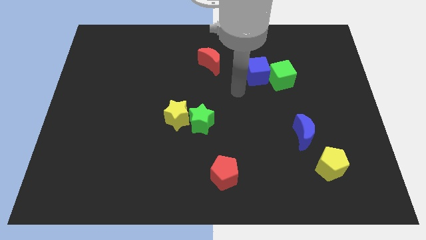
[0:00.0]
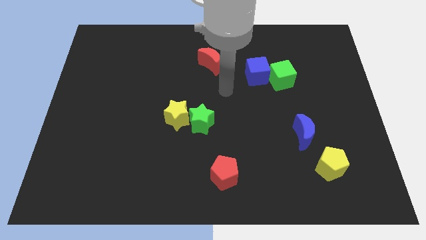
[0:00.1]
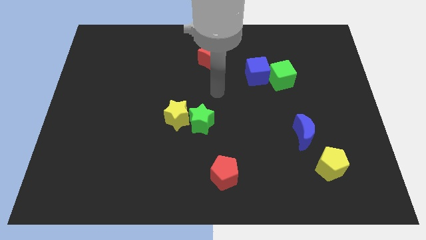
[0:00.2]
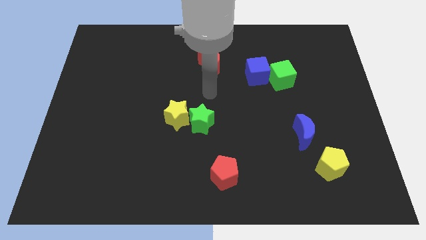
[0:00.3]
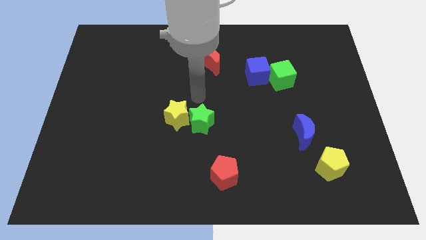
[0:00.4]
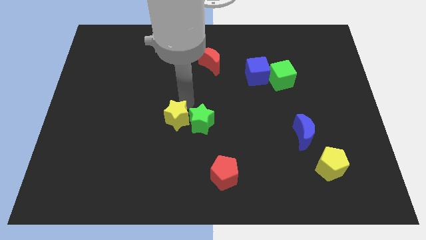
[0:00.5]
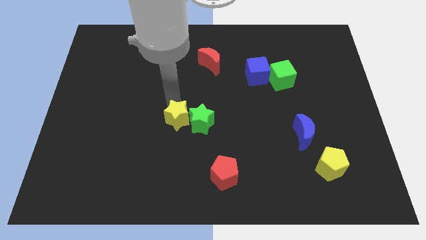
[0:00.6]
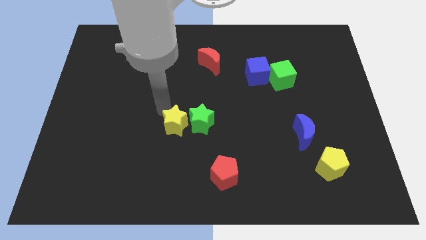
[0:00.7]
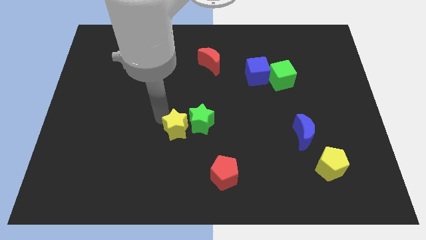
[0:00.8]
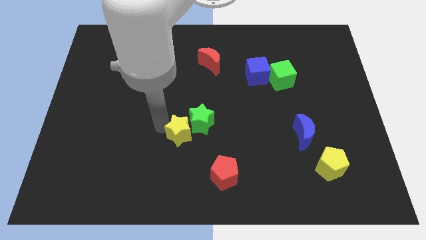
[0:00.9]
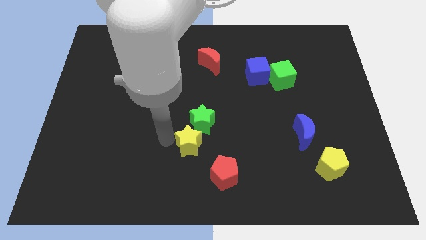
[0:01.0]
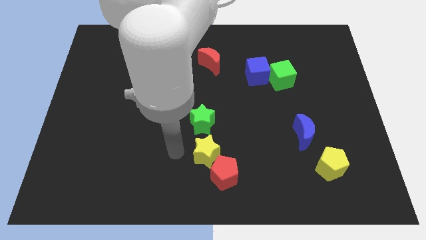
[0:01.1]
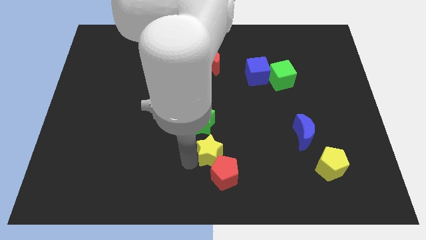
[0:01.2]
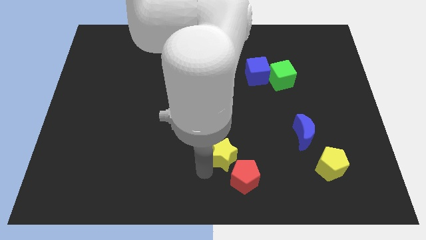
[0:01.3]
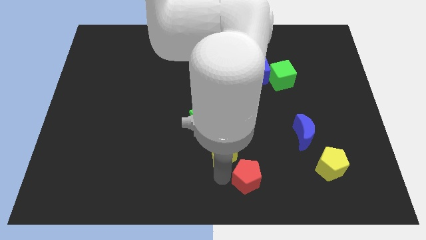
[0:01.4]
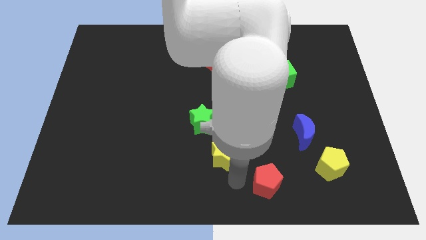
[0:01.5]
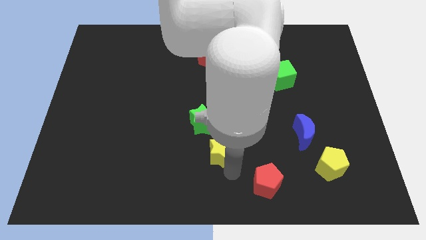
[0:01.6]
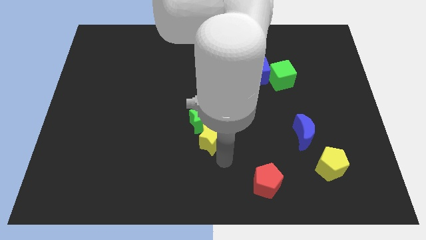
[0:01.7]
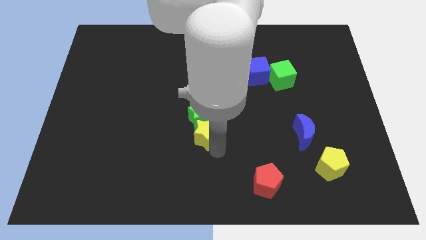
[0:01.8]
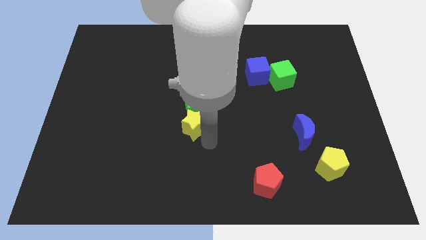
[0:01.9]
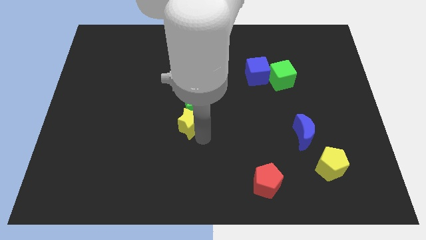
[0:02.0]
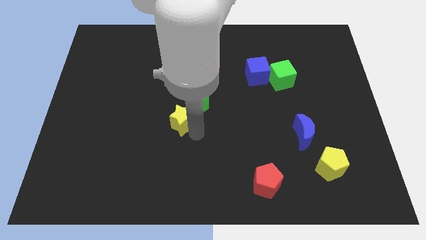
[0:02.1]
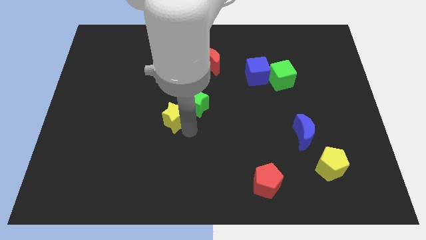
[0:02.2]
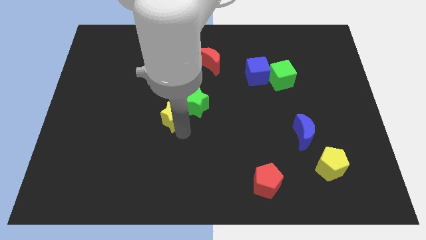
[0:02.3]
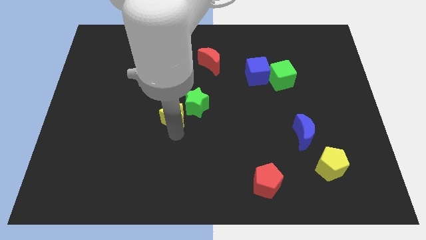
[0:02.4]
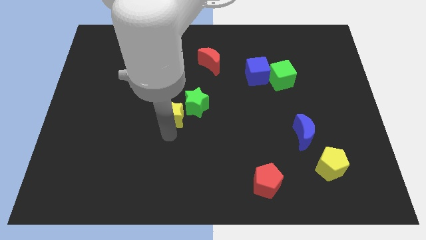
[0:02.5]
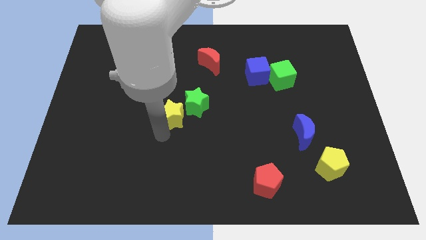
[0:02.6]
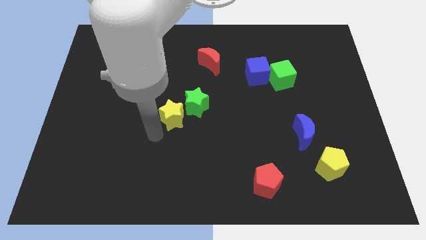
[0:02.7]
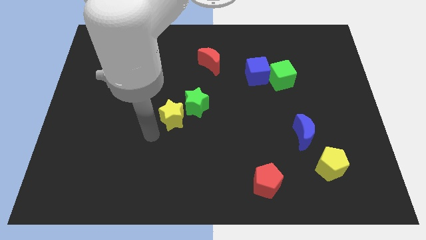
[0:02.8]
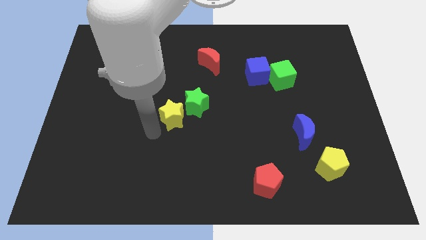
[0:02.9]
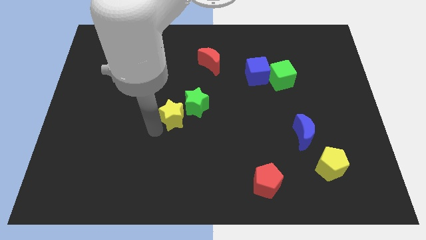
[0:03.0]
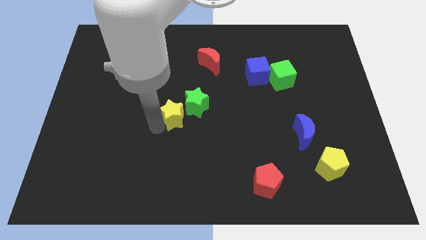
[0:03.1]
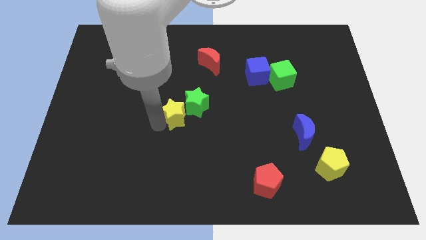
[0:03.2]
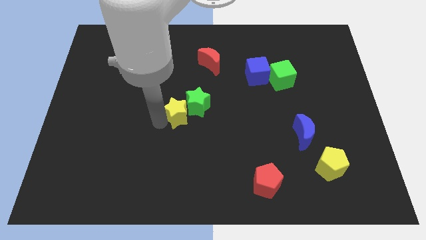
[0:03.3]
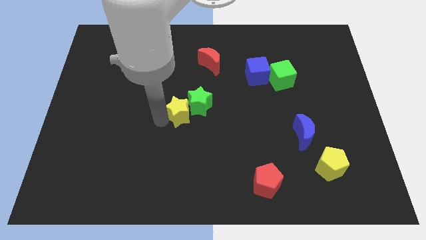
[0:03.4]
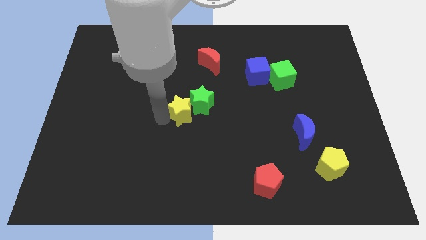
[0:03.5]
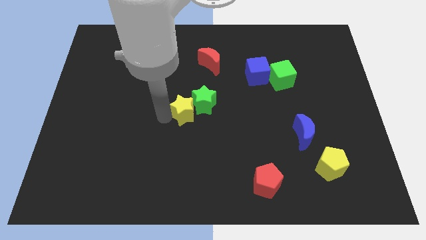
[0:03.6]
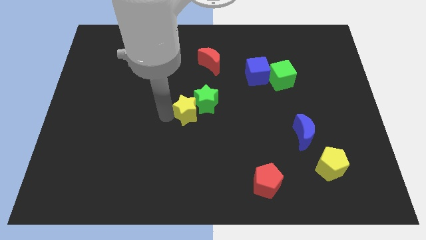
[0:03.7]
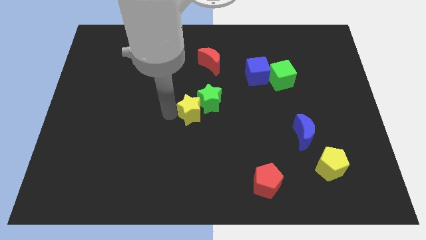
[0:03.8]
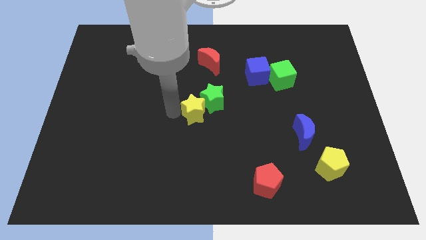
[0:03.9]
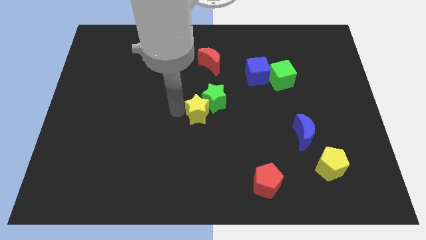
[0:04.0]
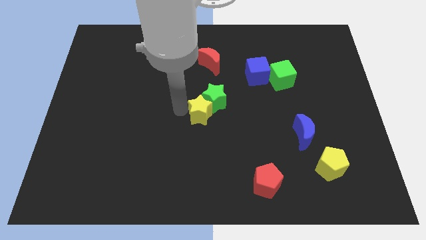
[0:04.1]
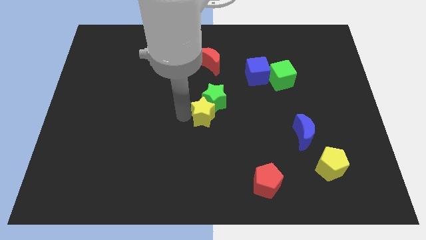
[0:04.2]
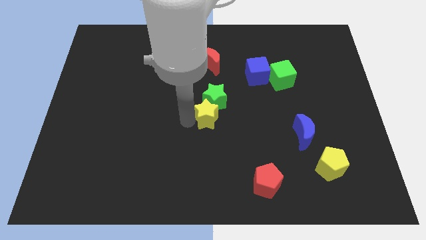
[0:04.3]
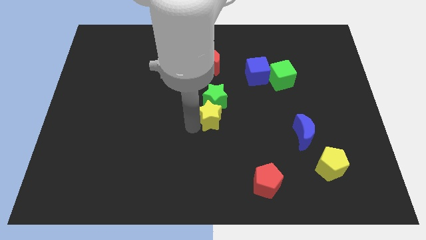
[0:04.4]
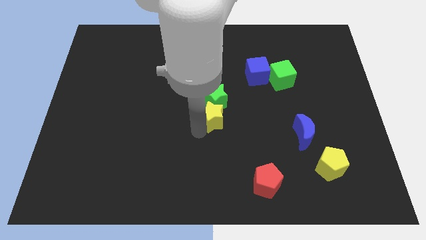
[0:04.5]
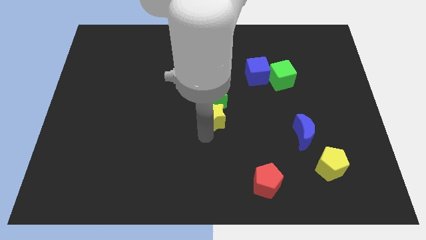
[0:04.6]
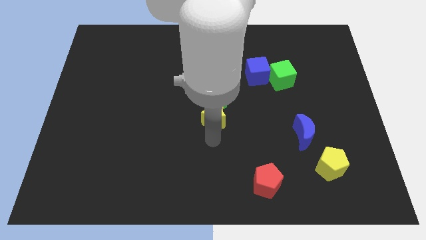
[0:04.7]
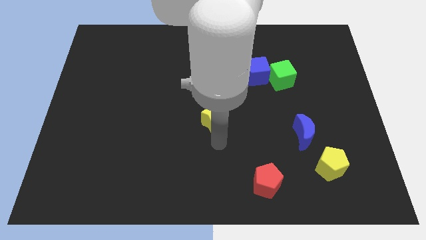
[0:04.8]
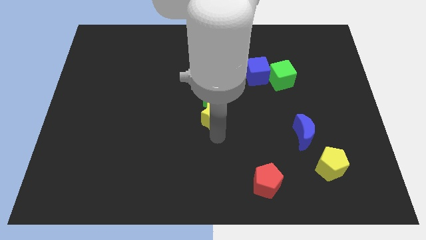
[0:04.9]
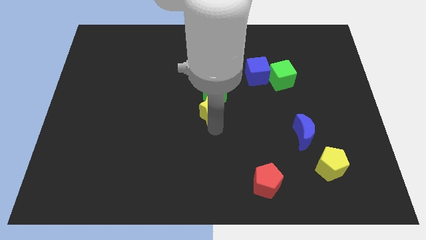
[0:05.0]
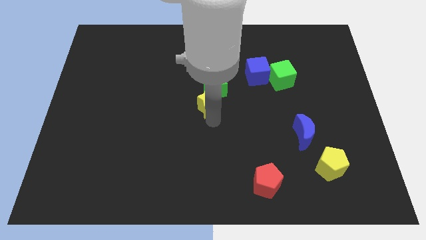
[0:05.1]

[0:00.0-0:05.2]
push the yellow star up and right a little

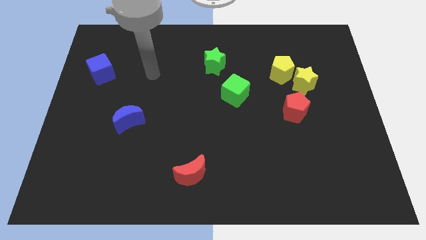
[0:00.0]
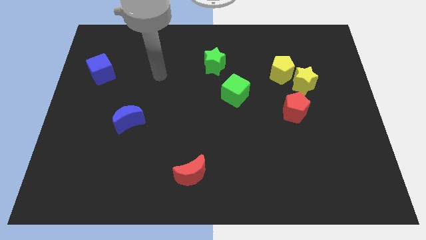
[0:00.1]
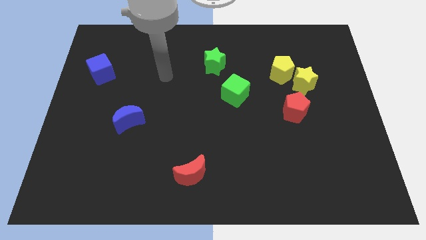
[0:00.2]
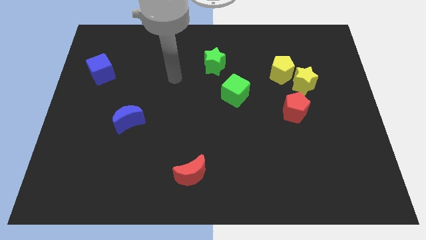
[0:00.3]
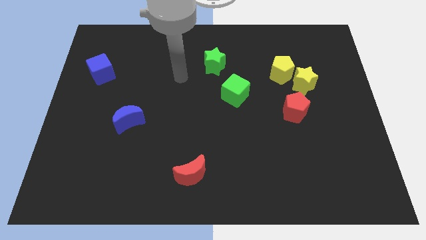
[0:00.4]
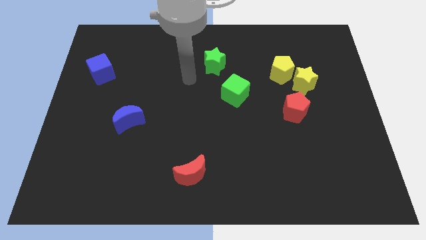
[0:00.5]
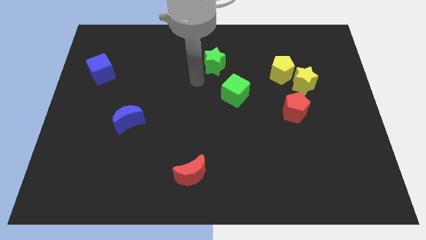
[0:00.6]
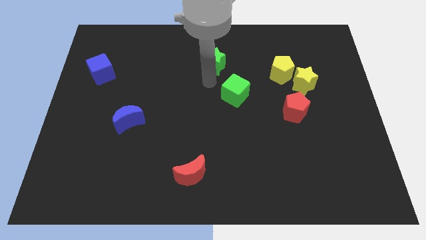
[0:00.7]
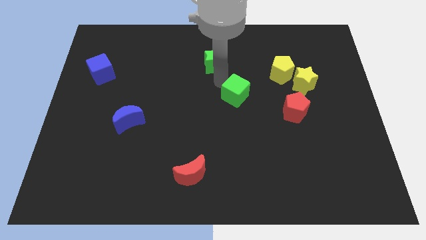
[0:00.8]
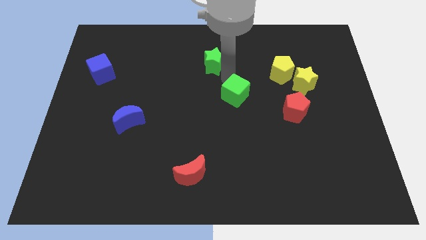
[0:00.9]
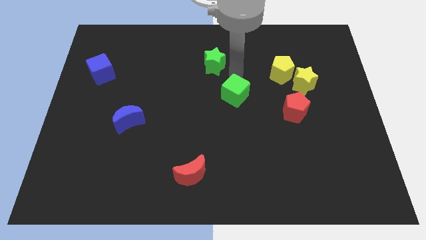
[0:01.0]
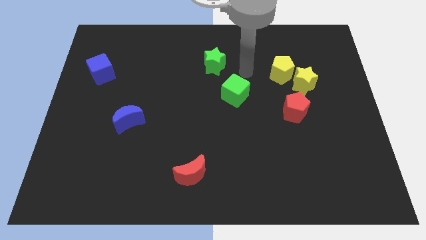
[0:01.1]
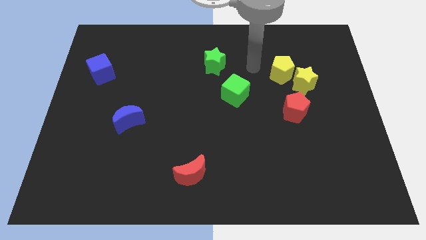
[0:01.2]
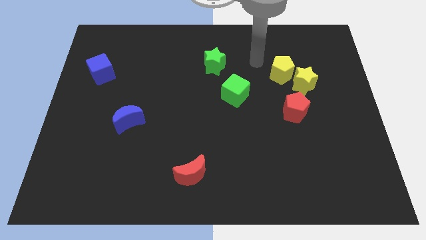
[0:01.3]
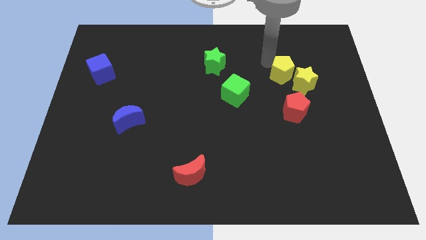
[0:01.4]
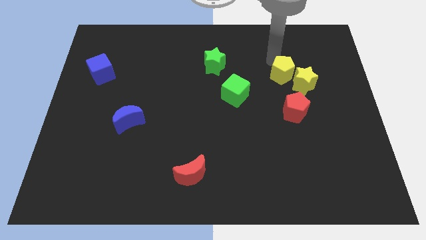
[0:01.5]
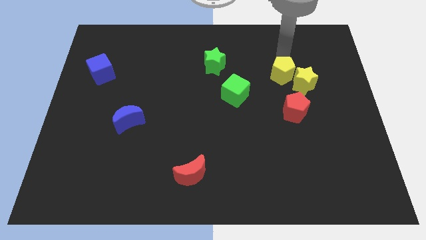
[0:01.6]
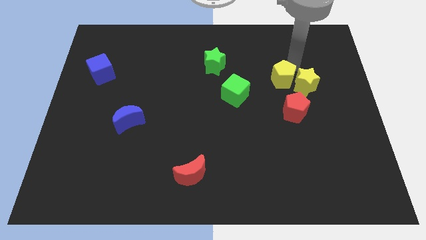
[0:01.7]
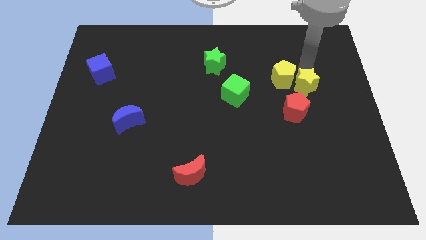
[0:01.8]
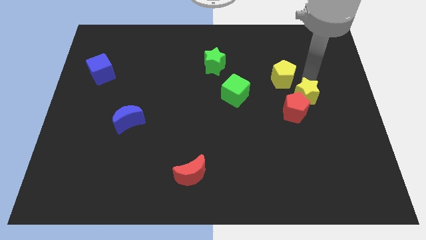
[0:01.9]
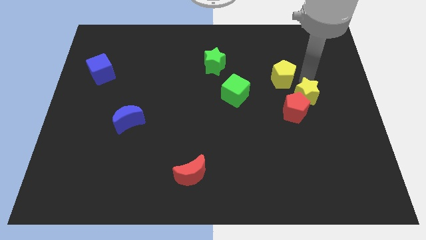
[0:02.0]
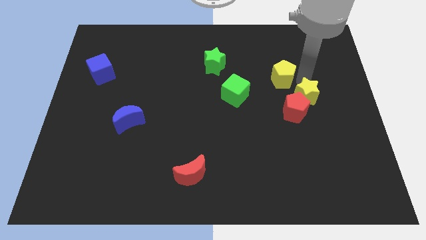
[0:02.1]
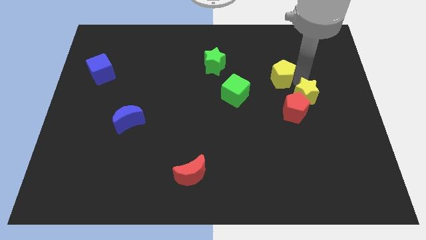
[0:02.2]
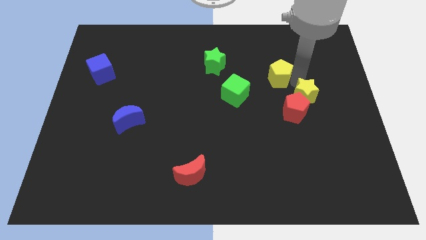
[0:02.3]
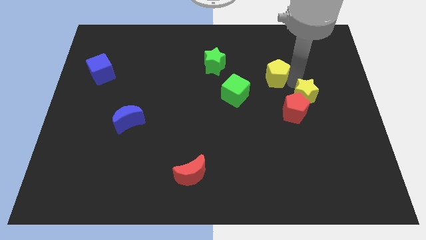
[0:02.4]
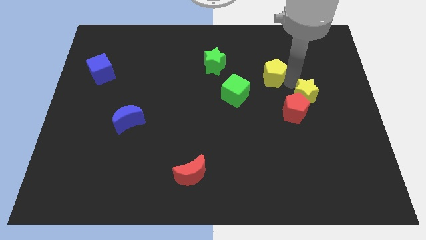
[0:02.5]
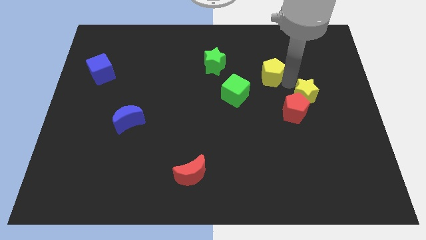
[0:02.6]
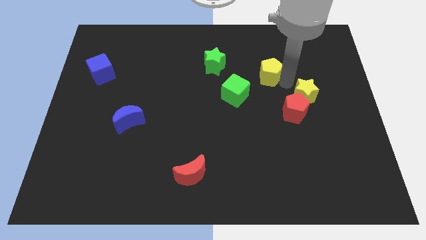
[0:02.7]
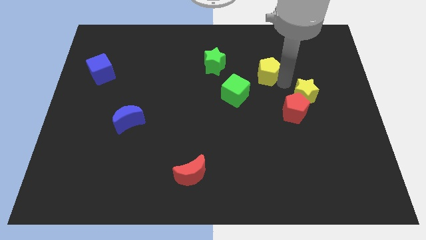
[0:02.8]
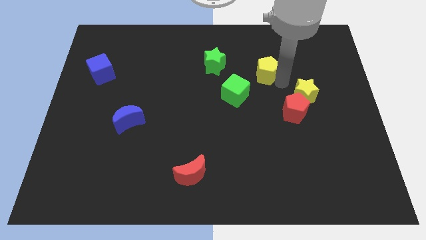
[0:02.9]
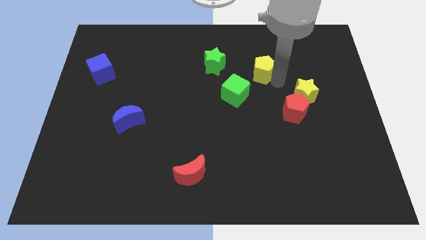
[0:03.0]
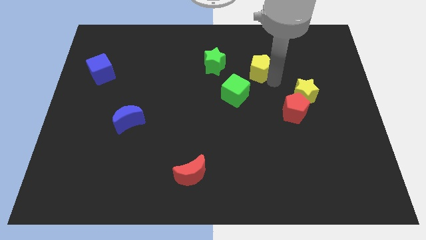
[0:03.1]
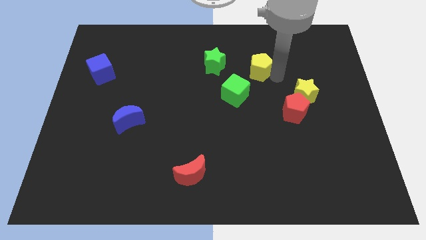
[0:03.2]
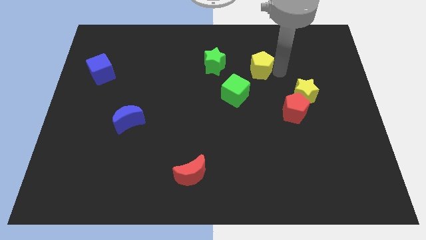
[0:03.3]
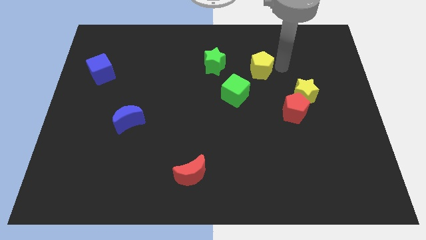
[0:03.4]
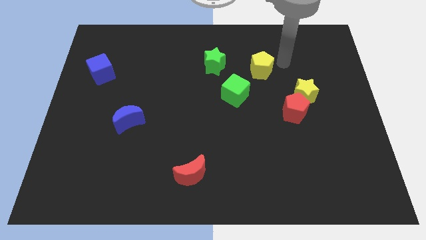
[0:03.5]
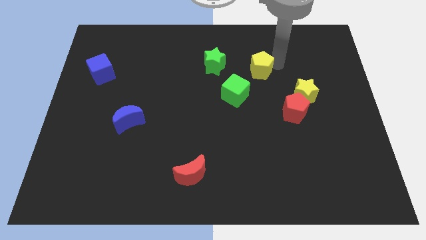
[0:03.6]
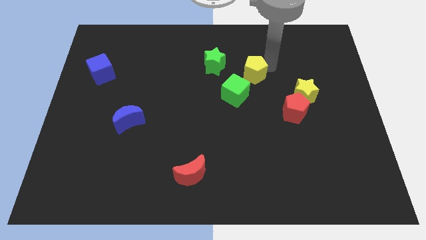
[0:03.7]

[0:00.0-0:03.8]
move the yellow pentagon a bit to the left
